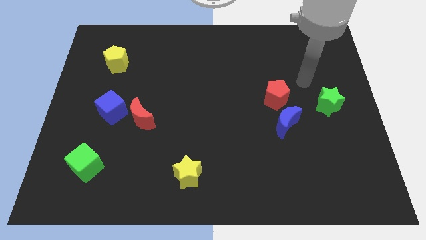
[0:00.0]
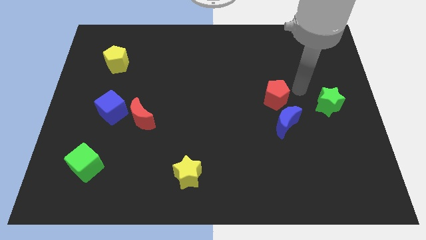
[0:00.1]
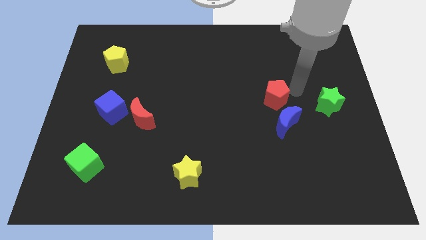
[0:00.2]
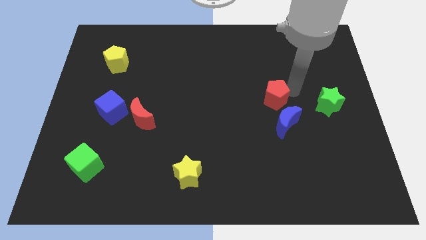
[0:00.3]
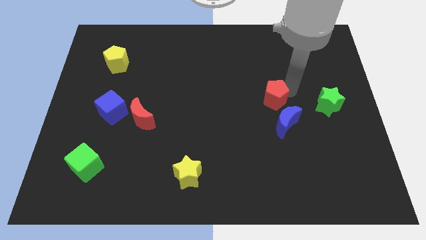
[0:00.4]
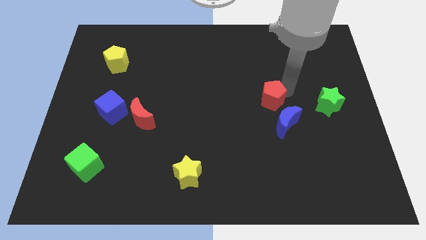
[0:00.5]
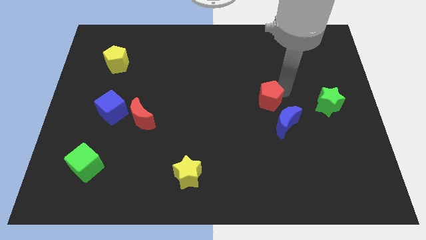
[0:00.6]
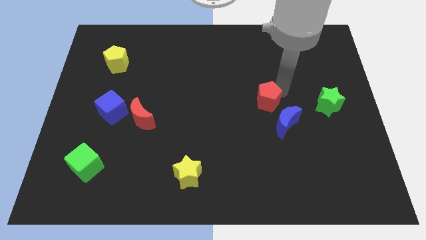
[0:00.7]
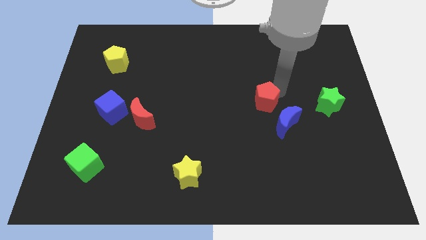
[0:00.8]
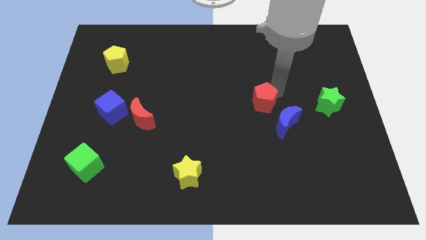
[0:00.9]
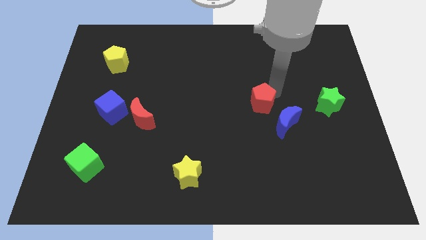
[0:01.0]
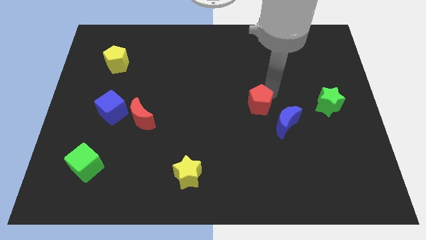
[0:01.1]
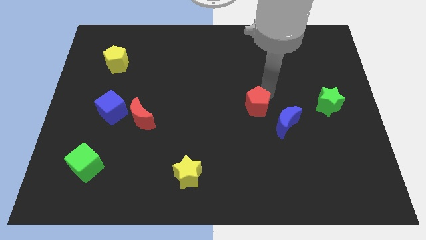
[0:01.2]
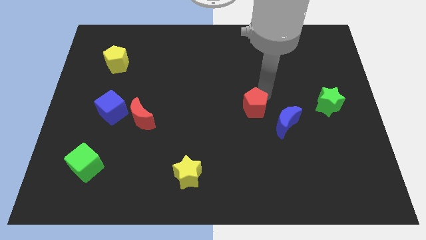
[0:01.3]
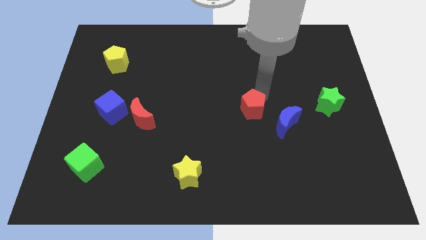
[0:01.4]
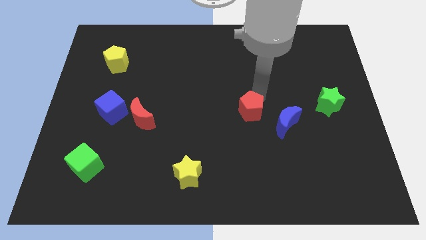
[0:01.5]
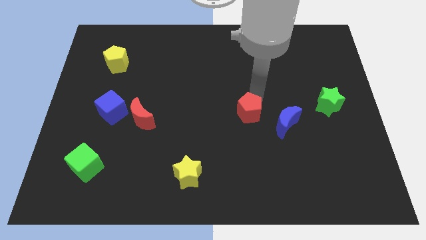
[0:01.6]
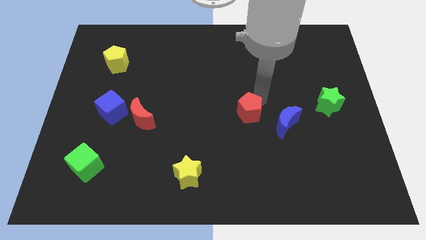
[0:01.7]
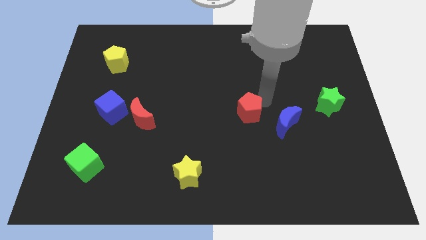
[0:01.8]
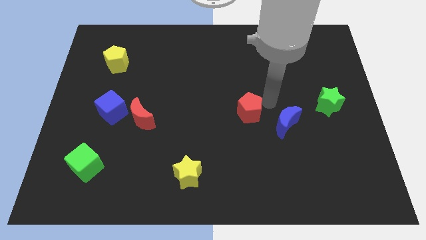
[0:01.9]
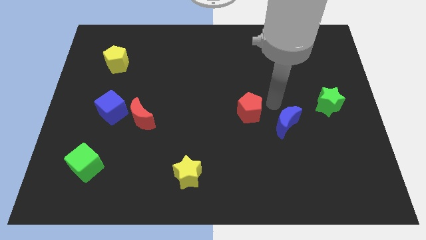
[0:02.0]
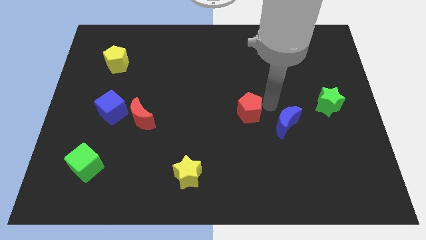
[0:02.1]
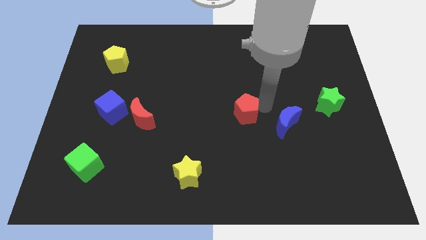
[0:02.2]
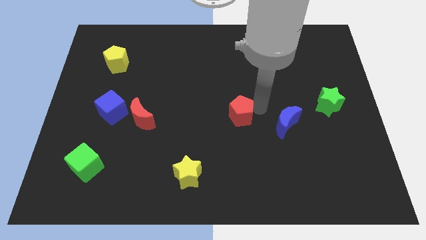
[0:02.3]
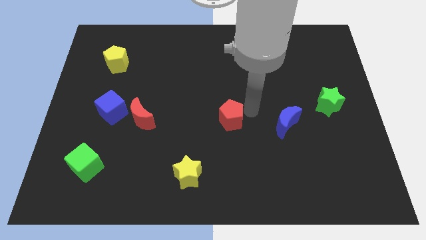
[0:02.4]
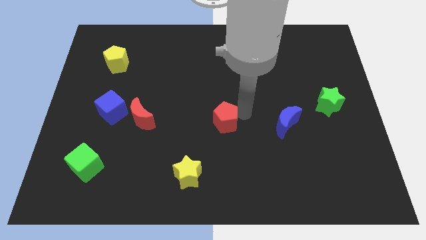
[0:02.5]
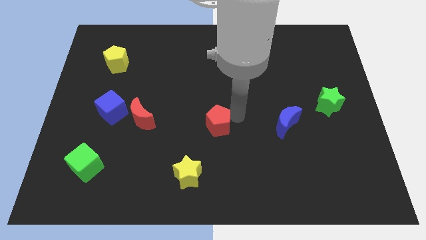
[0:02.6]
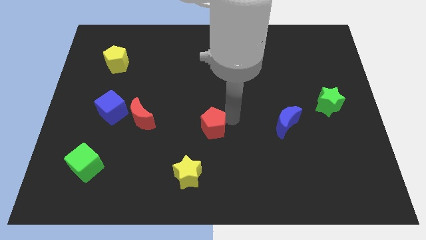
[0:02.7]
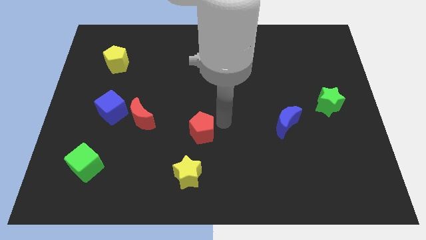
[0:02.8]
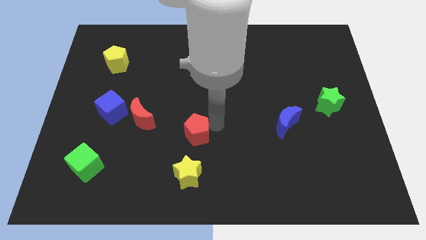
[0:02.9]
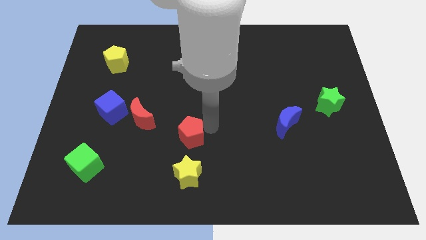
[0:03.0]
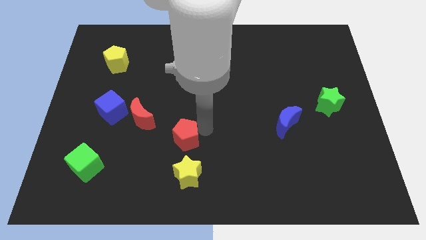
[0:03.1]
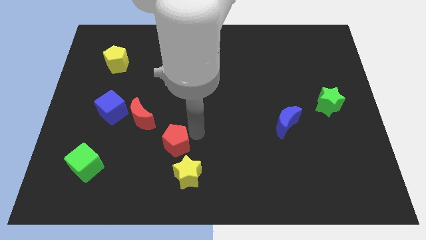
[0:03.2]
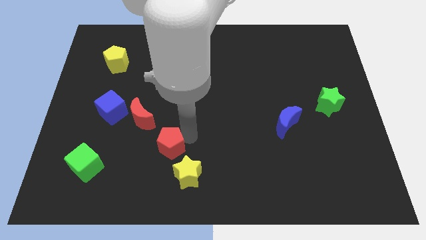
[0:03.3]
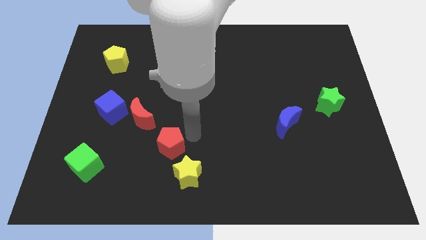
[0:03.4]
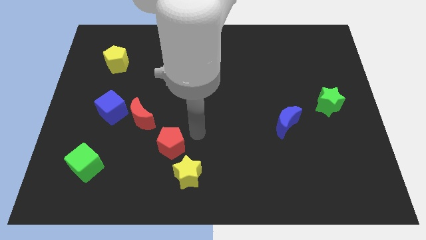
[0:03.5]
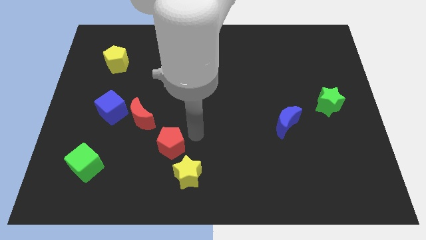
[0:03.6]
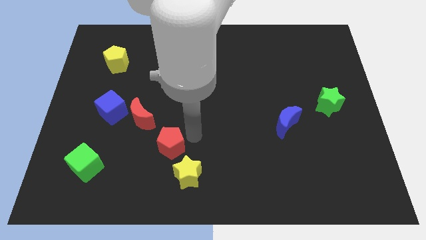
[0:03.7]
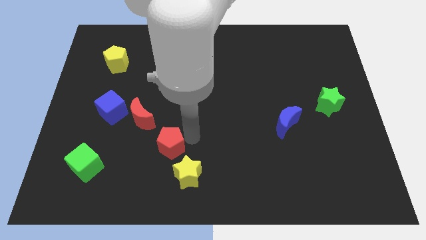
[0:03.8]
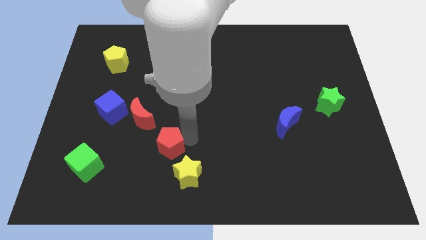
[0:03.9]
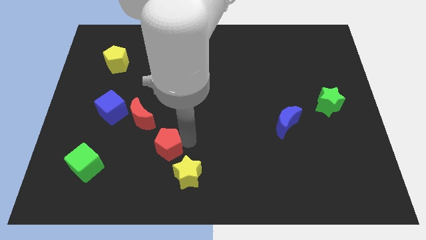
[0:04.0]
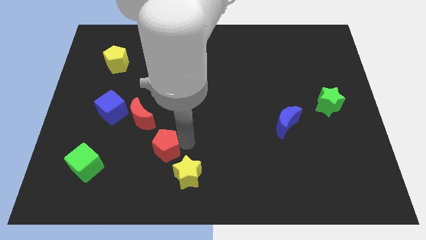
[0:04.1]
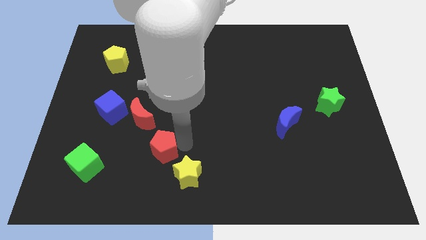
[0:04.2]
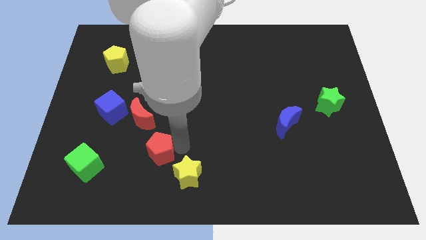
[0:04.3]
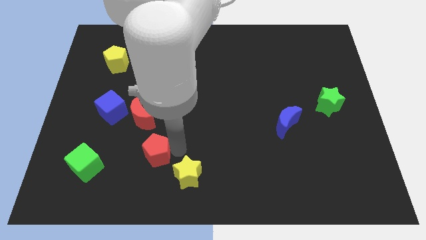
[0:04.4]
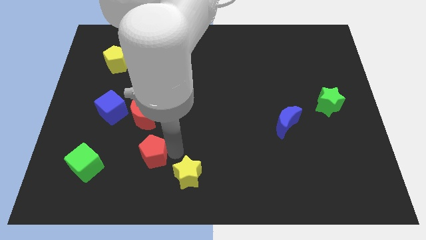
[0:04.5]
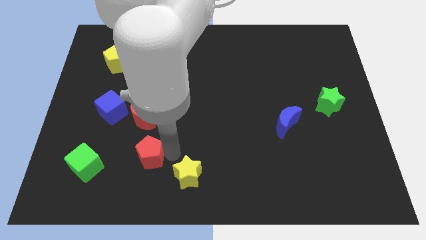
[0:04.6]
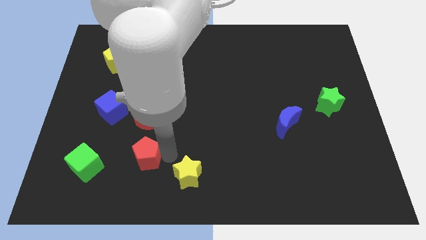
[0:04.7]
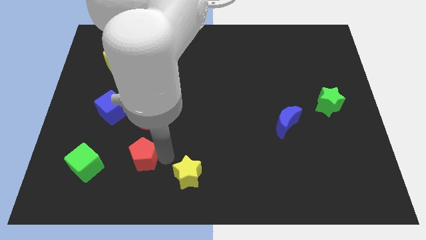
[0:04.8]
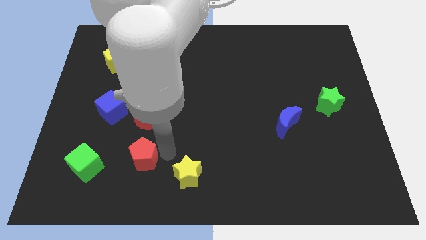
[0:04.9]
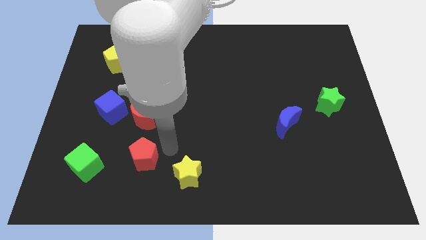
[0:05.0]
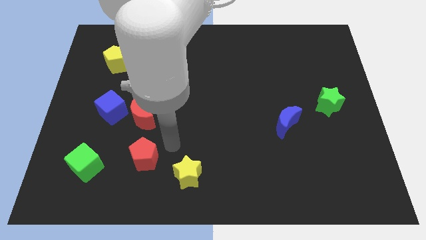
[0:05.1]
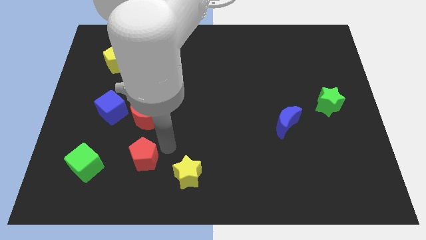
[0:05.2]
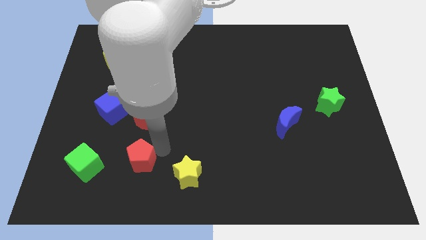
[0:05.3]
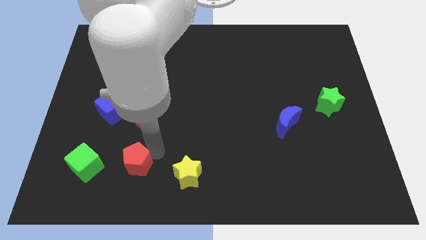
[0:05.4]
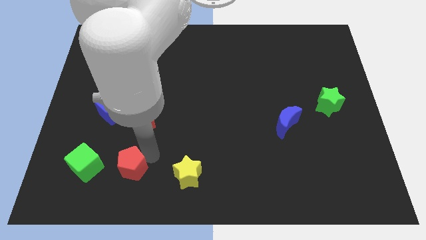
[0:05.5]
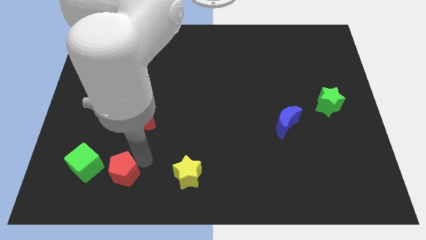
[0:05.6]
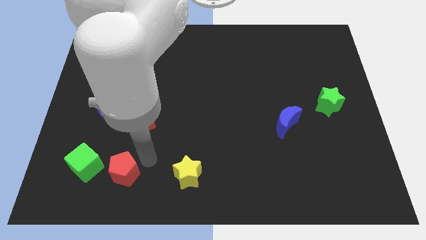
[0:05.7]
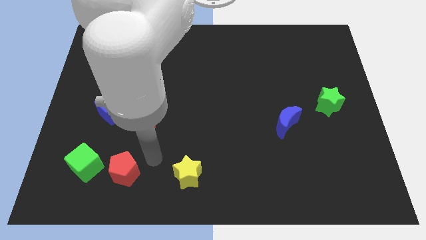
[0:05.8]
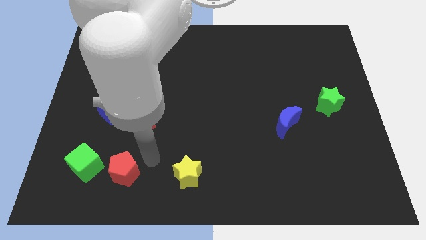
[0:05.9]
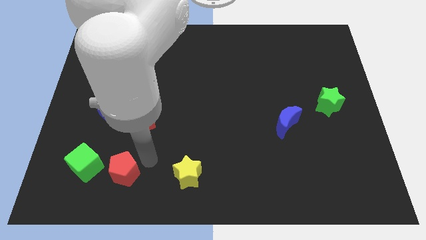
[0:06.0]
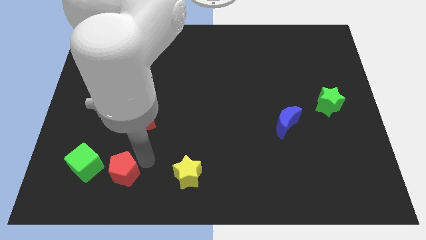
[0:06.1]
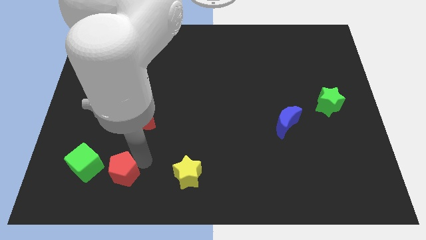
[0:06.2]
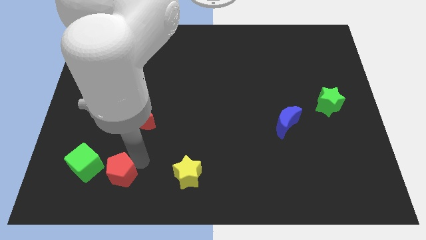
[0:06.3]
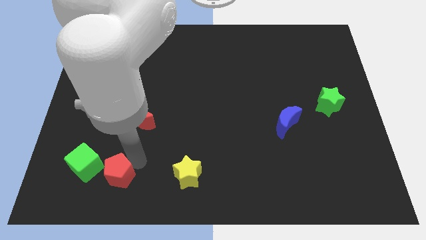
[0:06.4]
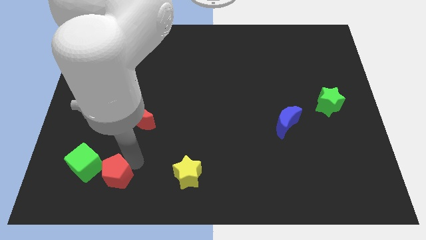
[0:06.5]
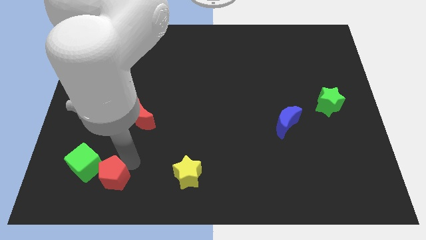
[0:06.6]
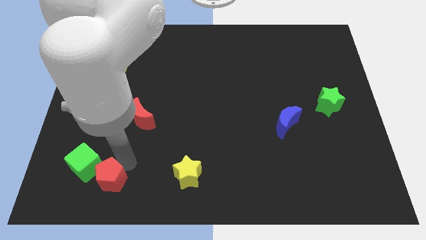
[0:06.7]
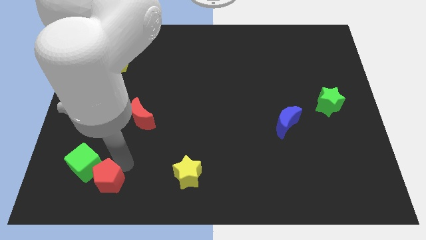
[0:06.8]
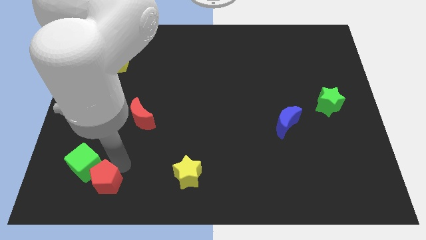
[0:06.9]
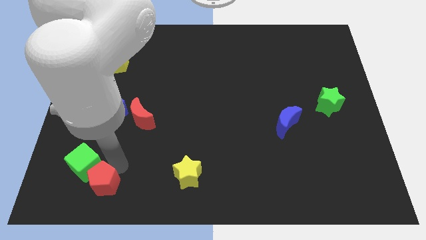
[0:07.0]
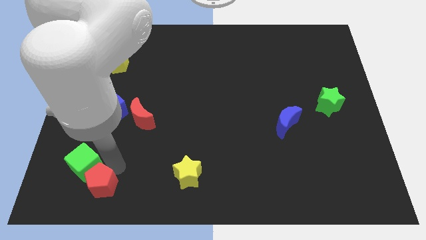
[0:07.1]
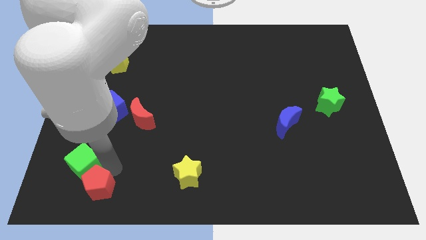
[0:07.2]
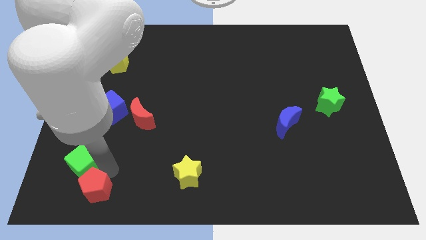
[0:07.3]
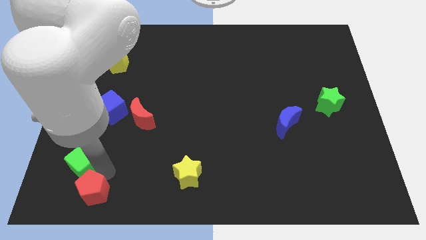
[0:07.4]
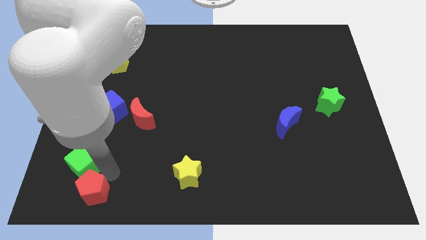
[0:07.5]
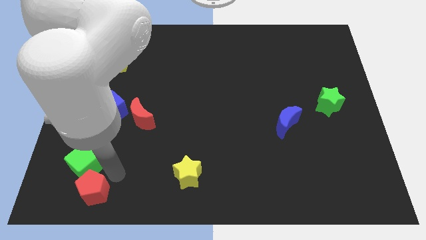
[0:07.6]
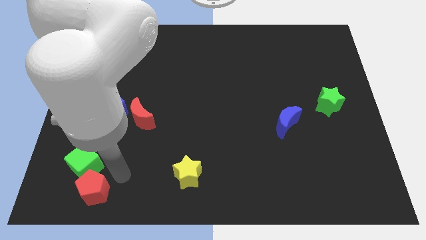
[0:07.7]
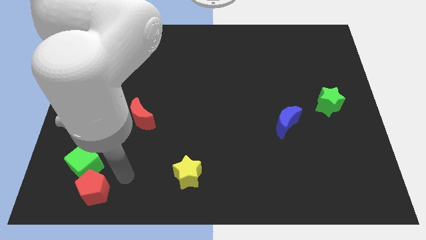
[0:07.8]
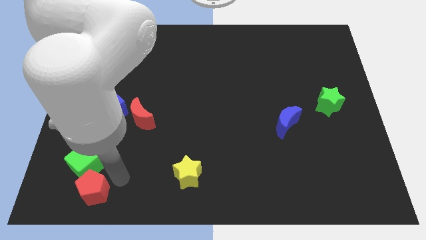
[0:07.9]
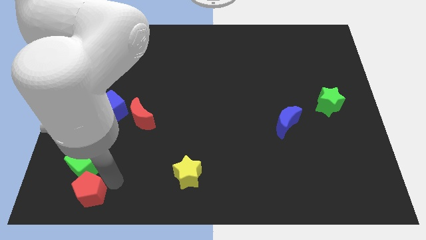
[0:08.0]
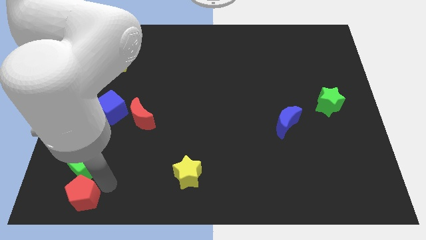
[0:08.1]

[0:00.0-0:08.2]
put the red pentagon to the bottom left corner
